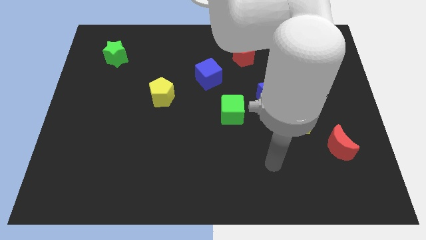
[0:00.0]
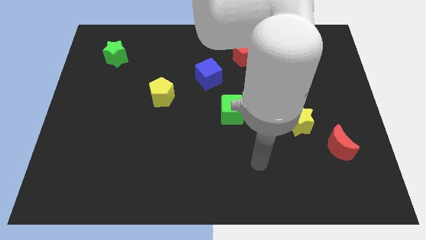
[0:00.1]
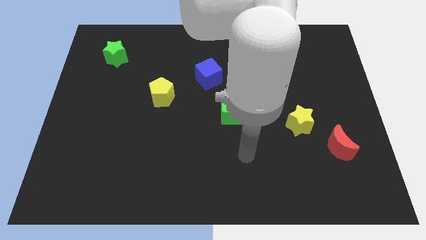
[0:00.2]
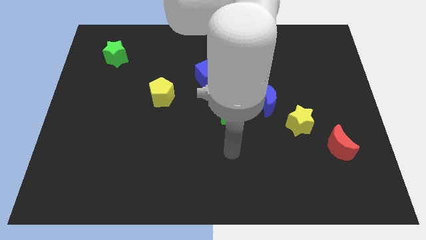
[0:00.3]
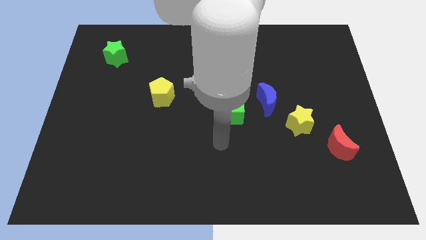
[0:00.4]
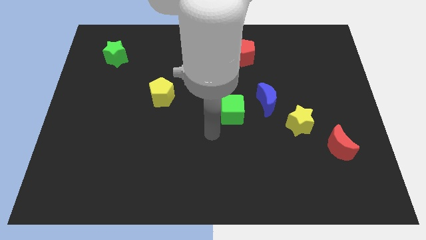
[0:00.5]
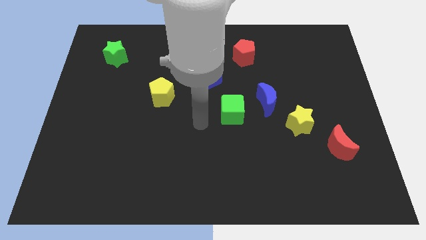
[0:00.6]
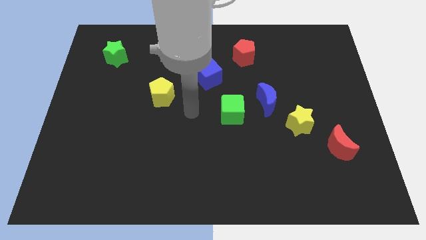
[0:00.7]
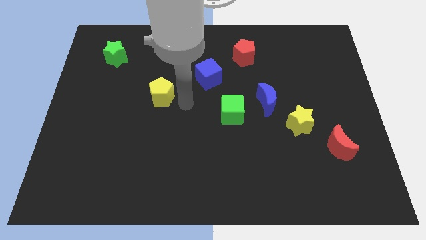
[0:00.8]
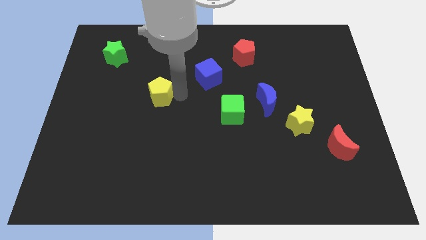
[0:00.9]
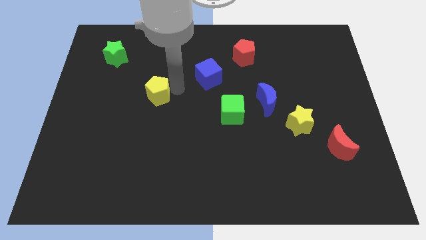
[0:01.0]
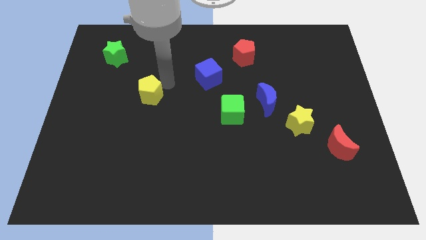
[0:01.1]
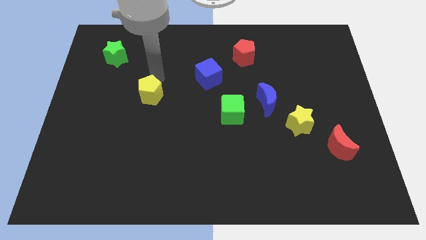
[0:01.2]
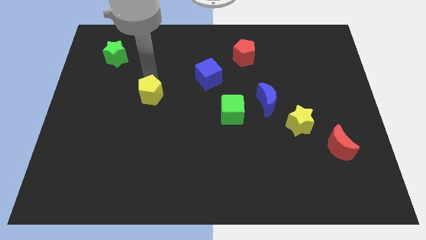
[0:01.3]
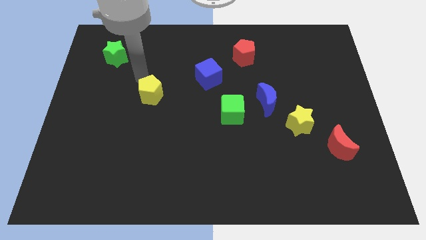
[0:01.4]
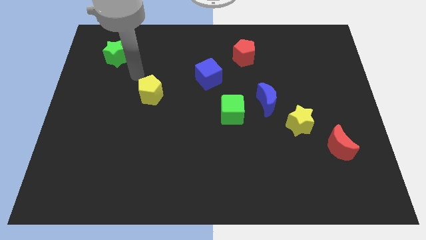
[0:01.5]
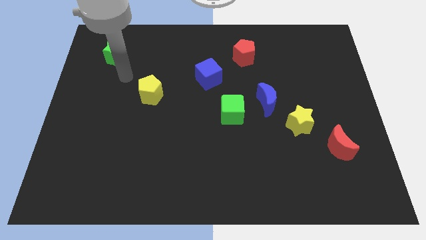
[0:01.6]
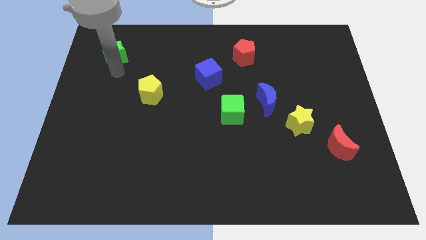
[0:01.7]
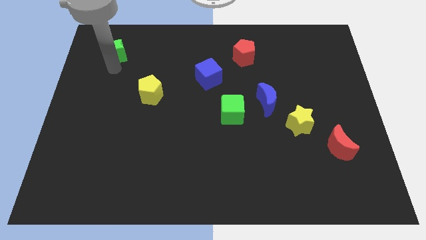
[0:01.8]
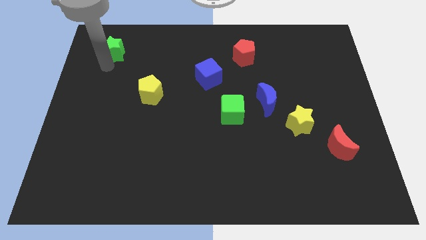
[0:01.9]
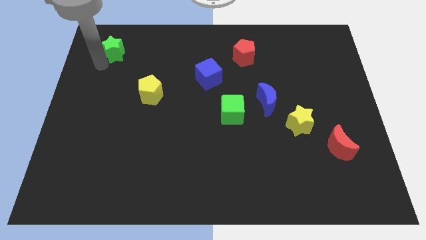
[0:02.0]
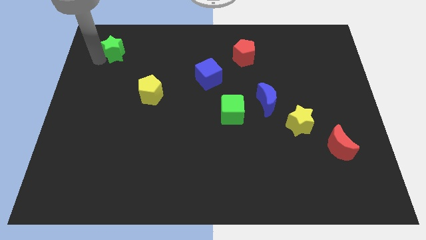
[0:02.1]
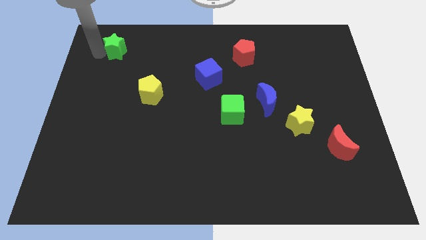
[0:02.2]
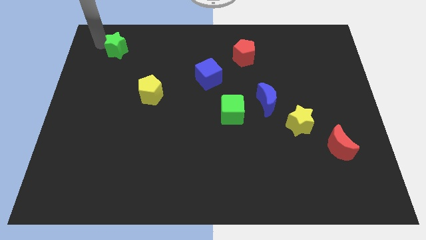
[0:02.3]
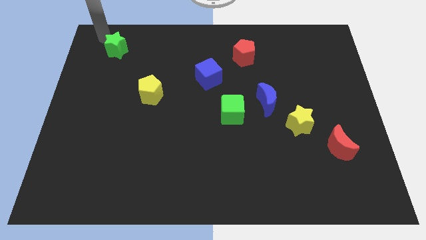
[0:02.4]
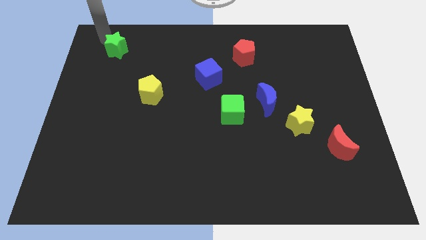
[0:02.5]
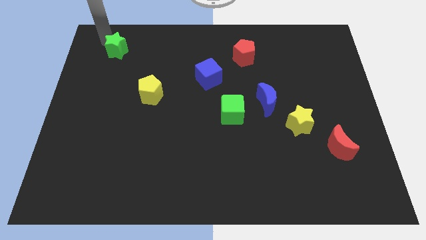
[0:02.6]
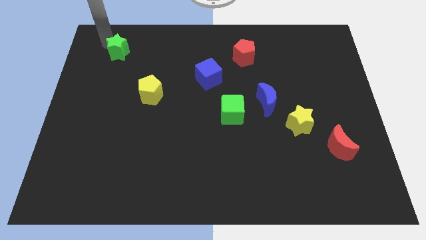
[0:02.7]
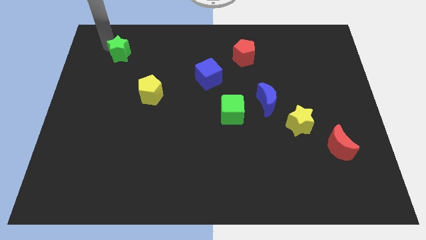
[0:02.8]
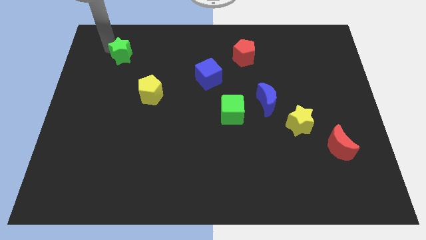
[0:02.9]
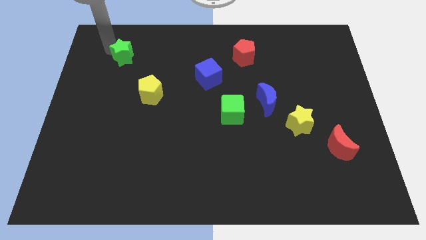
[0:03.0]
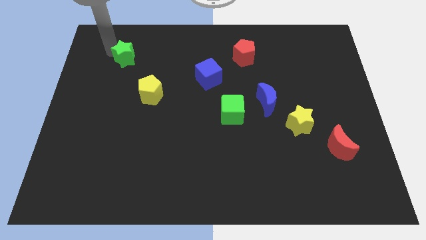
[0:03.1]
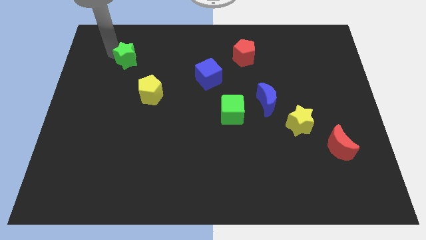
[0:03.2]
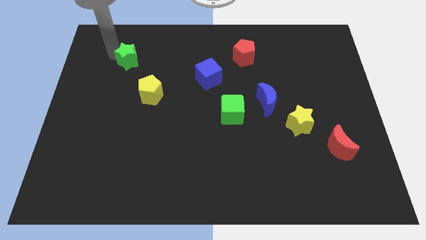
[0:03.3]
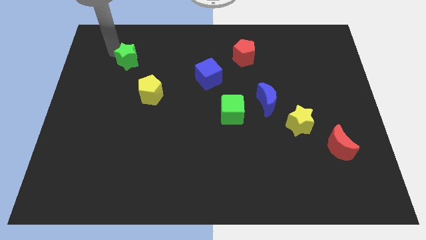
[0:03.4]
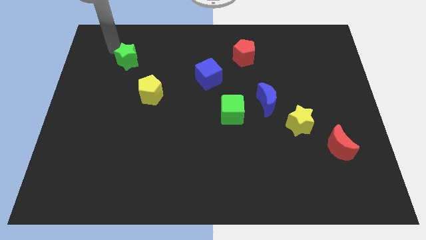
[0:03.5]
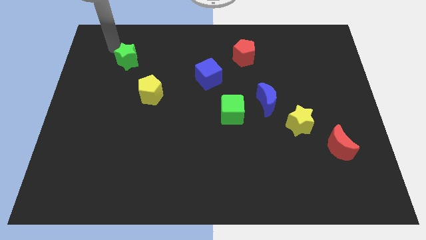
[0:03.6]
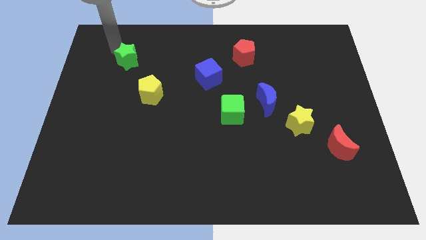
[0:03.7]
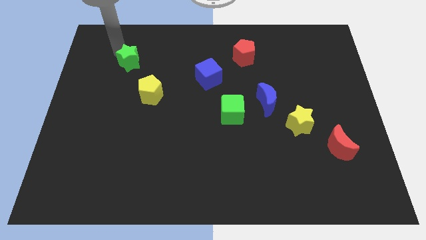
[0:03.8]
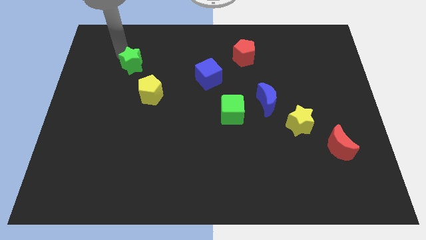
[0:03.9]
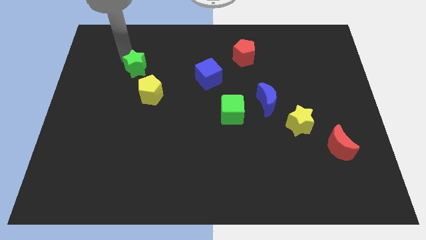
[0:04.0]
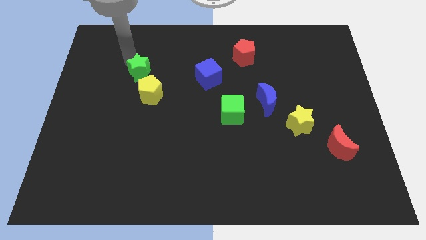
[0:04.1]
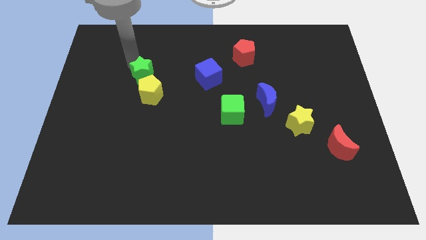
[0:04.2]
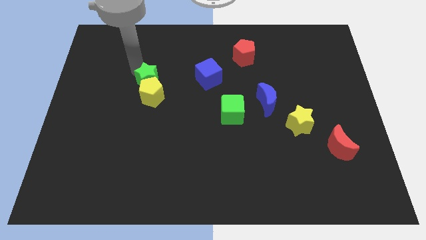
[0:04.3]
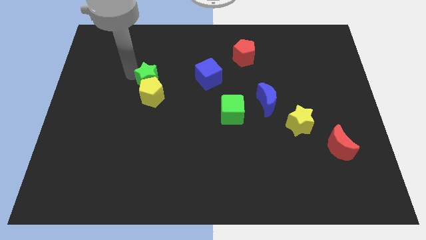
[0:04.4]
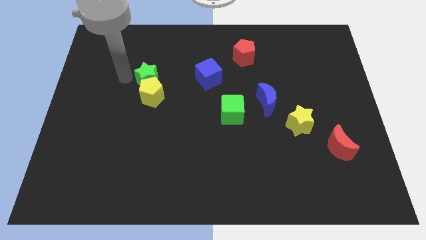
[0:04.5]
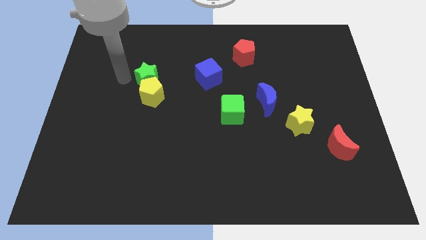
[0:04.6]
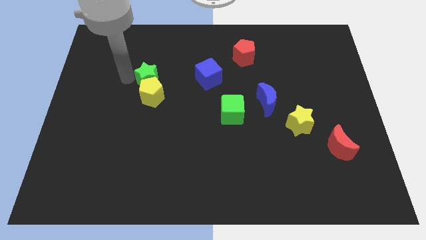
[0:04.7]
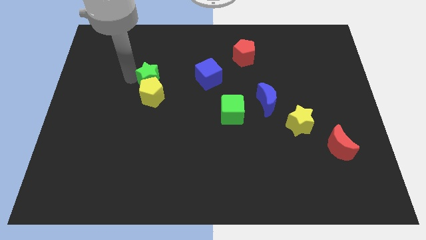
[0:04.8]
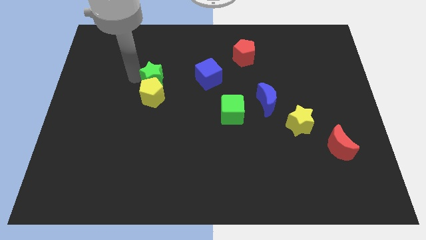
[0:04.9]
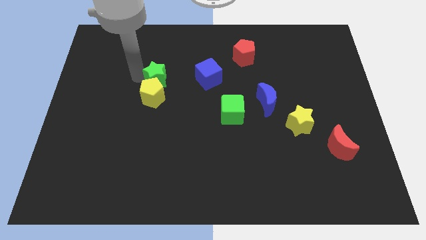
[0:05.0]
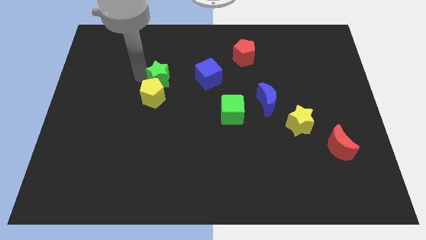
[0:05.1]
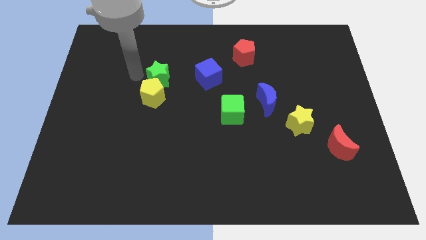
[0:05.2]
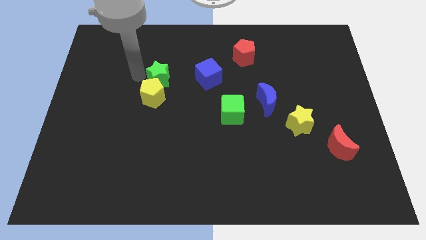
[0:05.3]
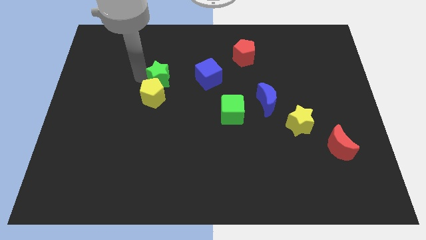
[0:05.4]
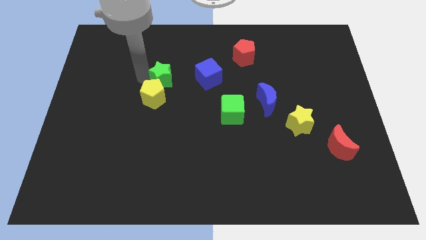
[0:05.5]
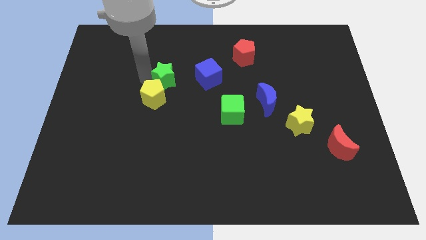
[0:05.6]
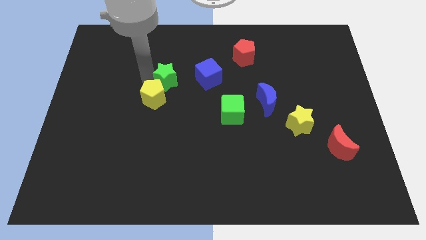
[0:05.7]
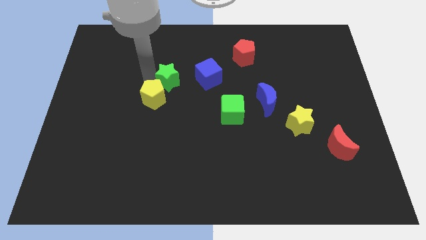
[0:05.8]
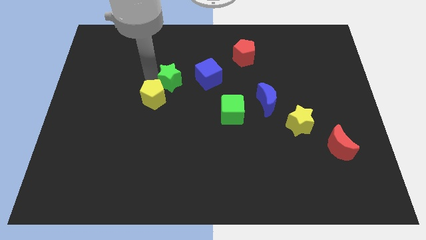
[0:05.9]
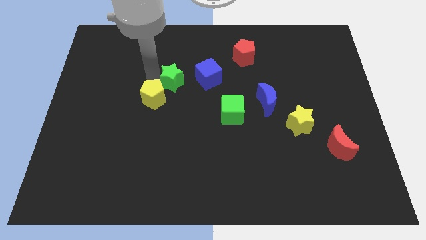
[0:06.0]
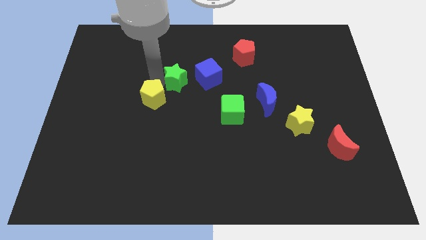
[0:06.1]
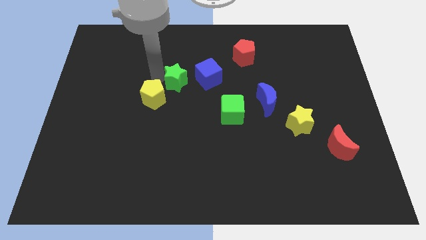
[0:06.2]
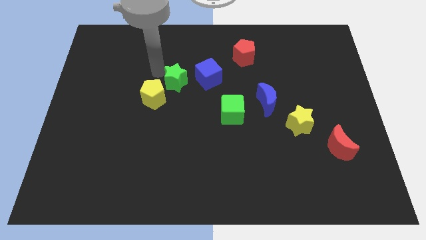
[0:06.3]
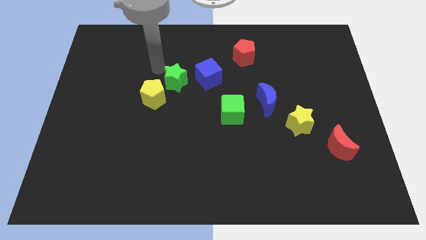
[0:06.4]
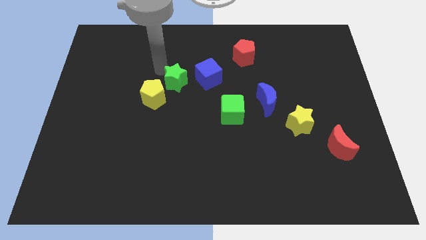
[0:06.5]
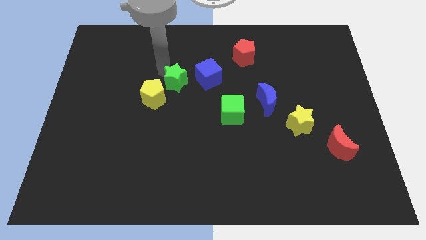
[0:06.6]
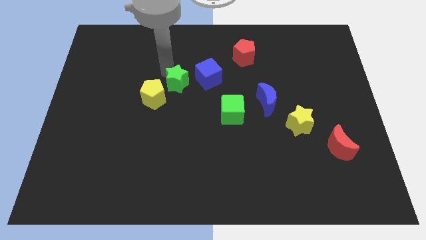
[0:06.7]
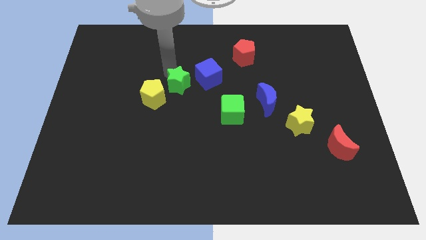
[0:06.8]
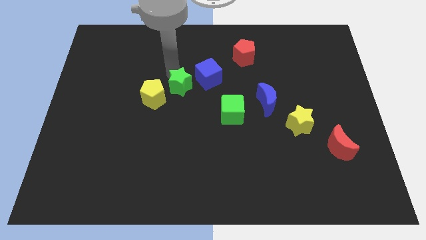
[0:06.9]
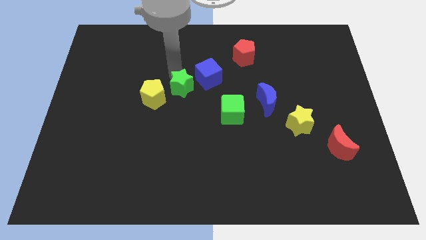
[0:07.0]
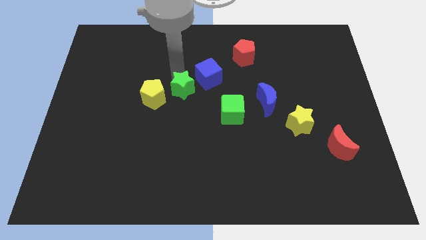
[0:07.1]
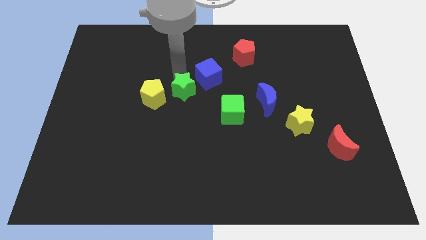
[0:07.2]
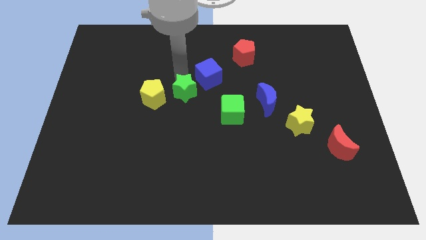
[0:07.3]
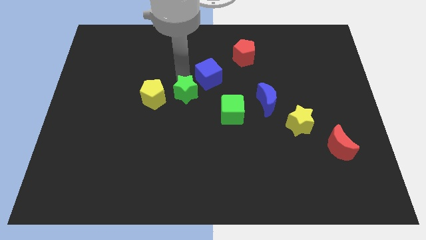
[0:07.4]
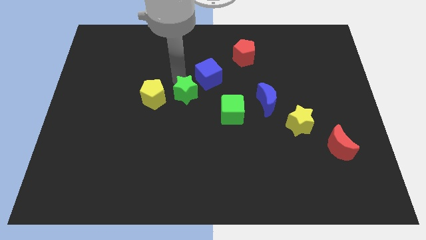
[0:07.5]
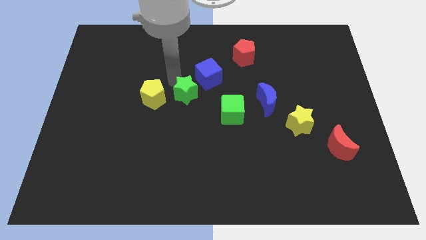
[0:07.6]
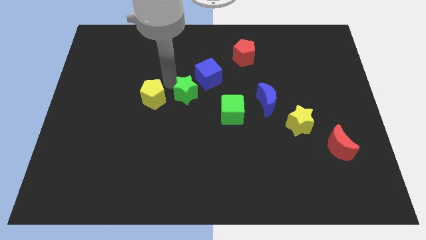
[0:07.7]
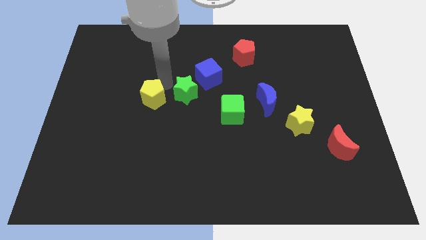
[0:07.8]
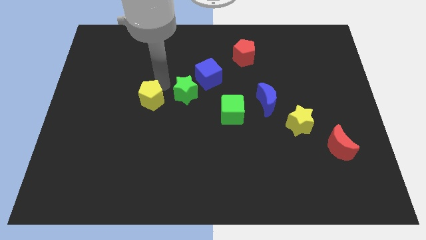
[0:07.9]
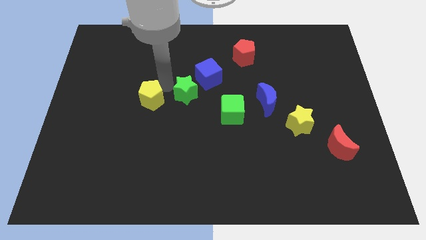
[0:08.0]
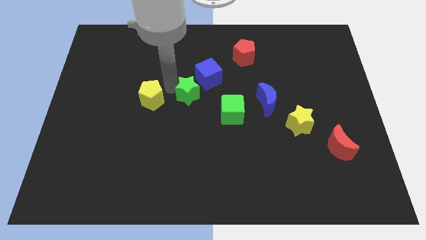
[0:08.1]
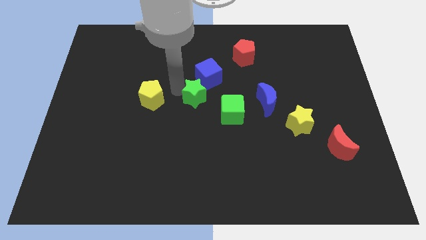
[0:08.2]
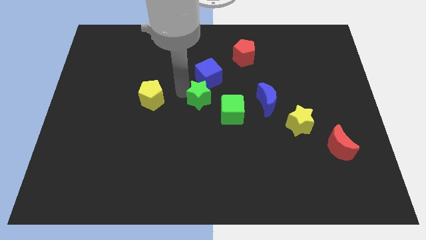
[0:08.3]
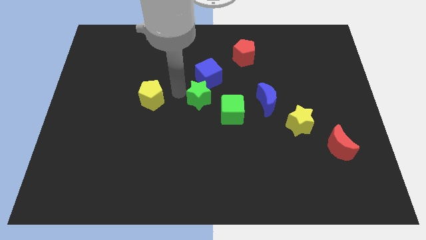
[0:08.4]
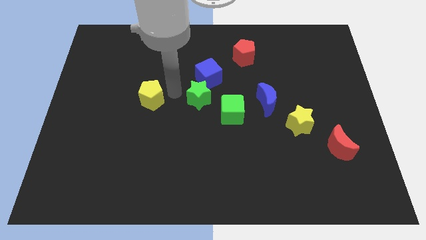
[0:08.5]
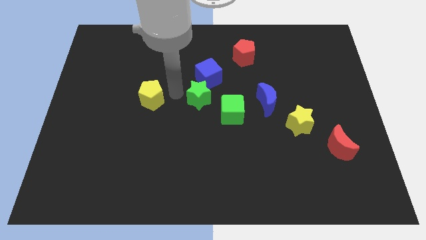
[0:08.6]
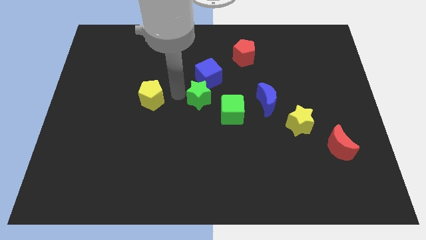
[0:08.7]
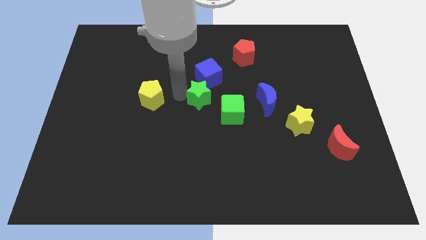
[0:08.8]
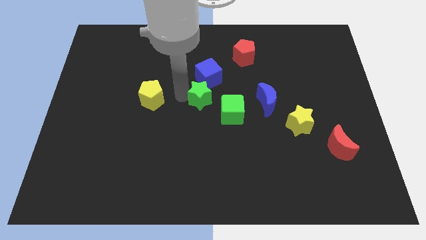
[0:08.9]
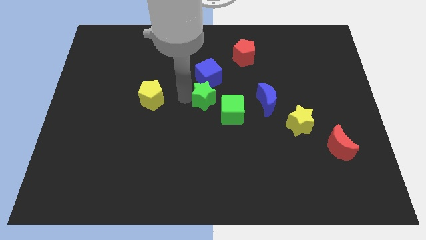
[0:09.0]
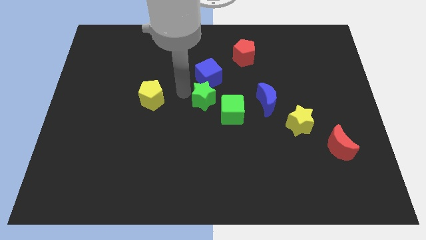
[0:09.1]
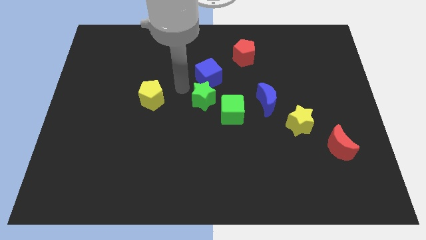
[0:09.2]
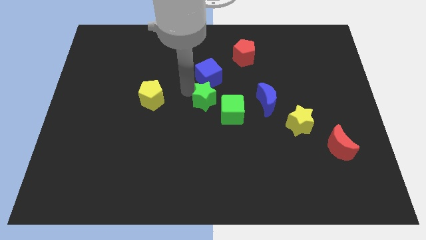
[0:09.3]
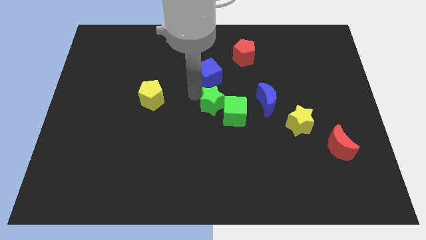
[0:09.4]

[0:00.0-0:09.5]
put the green star to the green cube
